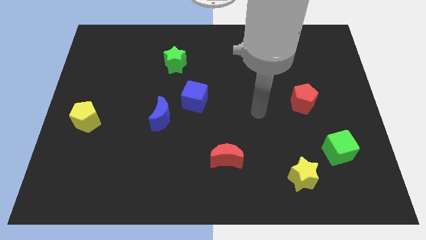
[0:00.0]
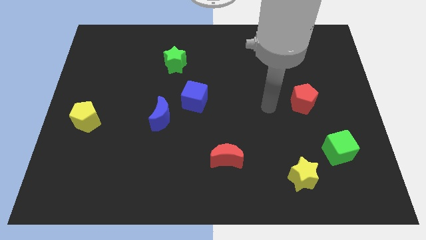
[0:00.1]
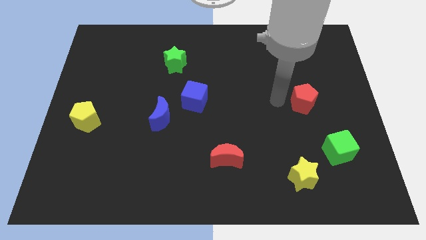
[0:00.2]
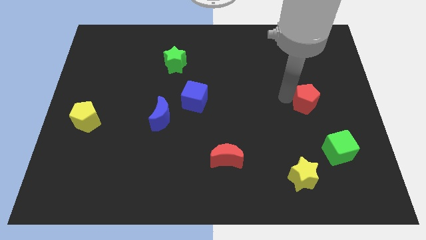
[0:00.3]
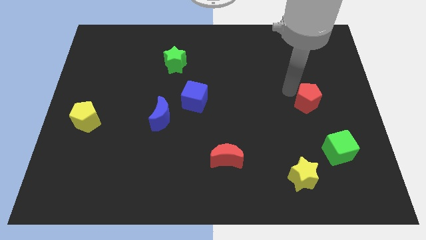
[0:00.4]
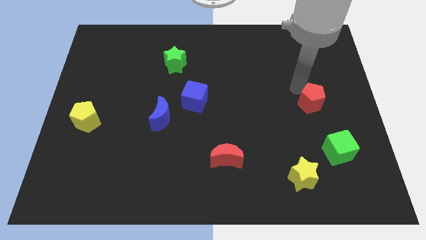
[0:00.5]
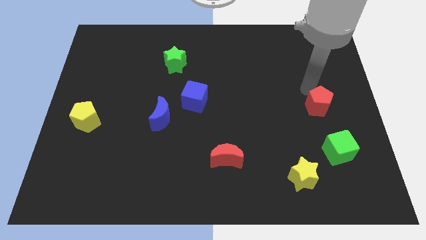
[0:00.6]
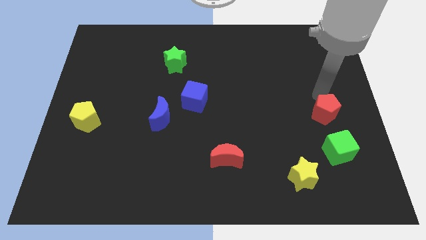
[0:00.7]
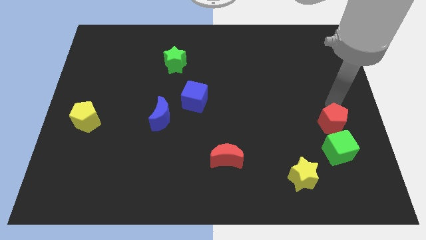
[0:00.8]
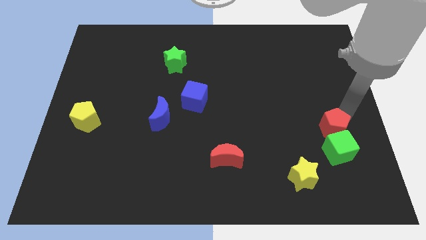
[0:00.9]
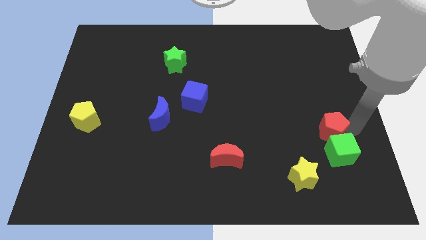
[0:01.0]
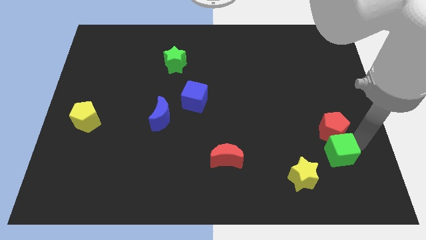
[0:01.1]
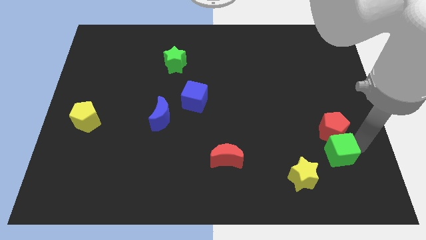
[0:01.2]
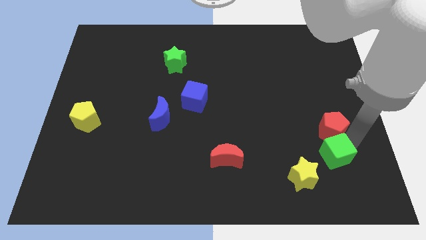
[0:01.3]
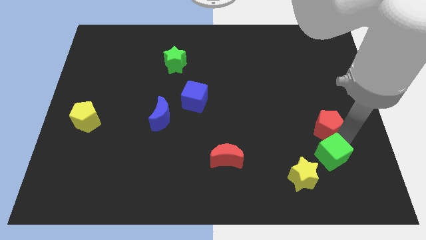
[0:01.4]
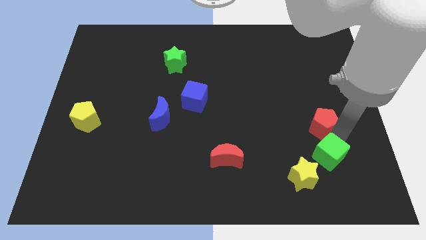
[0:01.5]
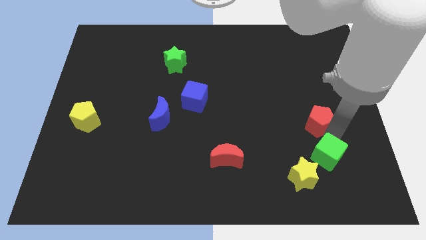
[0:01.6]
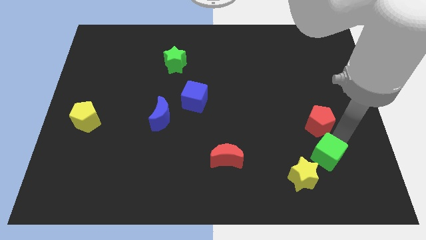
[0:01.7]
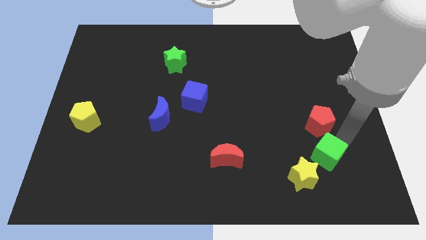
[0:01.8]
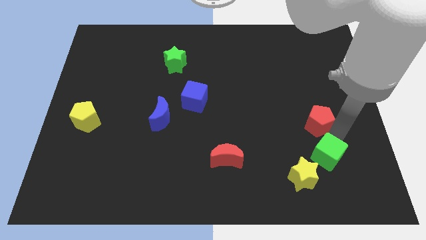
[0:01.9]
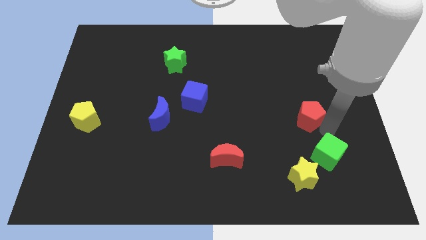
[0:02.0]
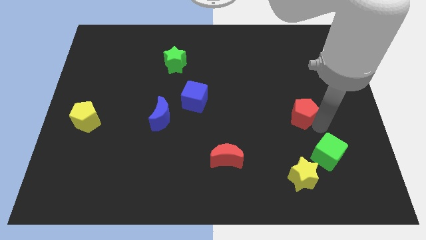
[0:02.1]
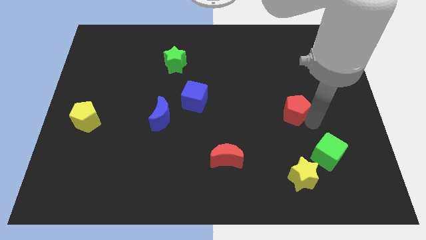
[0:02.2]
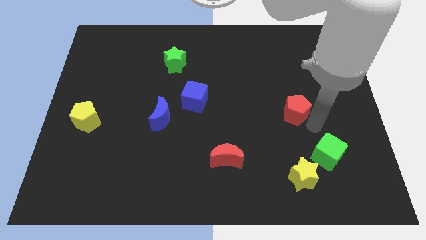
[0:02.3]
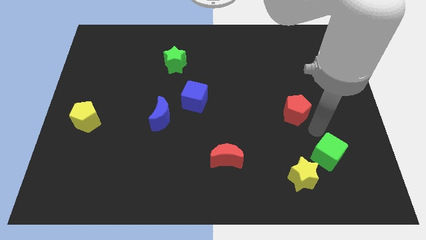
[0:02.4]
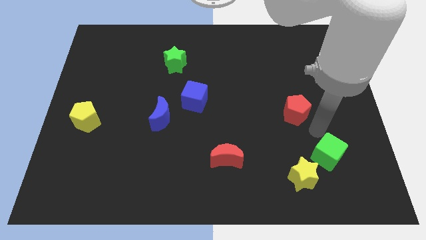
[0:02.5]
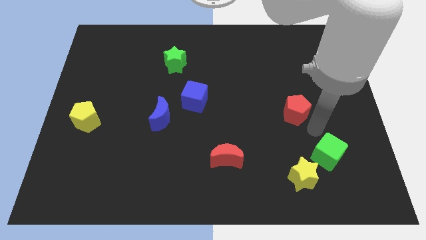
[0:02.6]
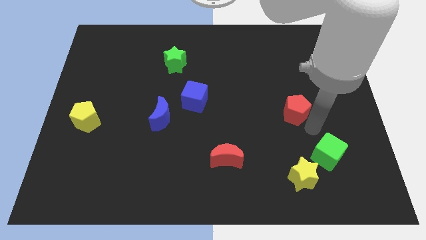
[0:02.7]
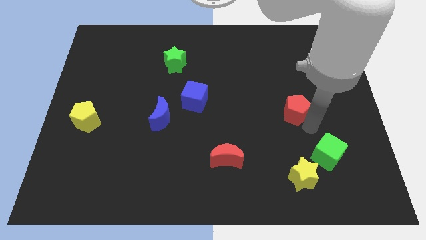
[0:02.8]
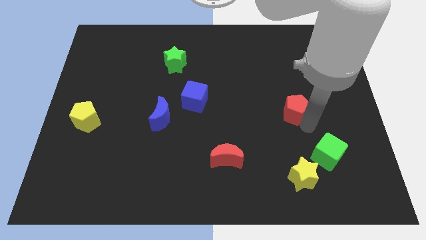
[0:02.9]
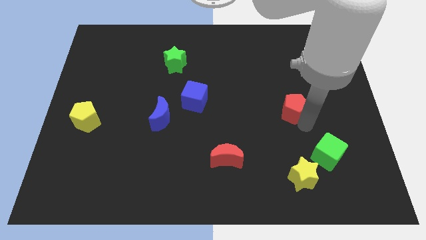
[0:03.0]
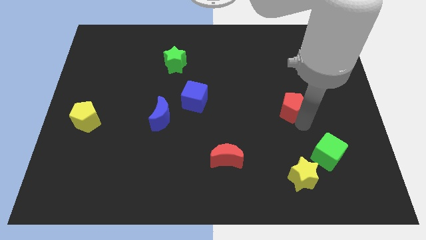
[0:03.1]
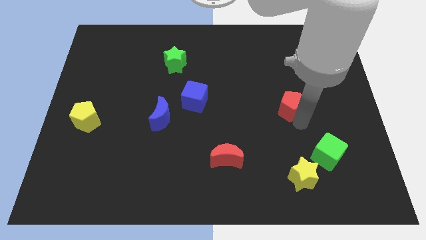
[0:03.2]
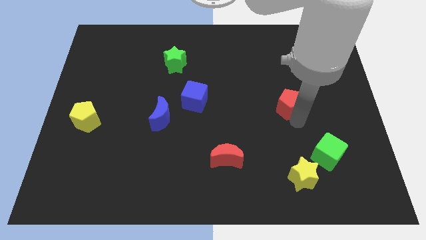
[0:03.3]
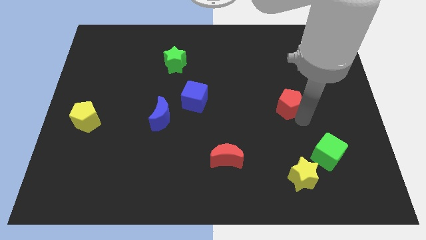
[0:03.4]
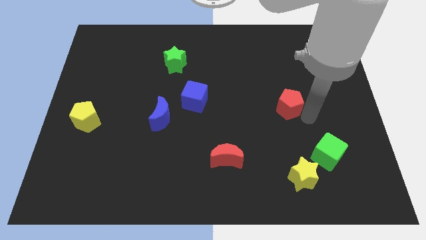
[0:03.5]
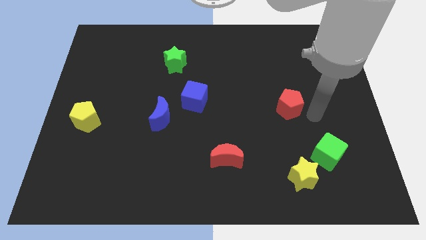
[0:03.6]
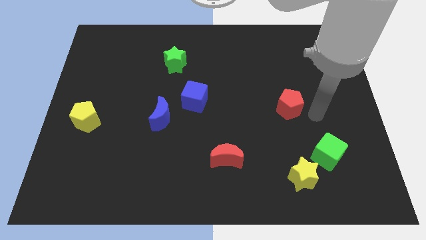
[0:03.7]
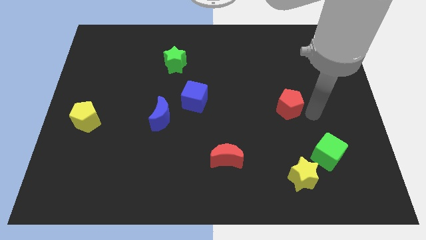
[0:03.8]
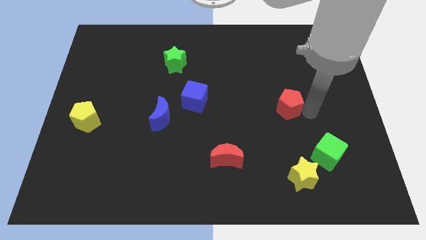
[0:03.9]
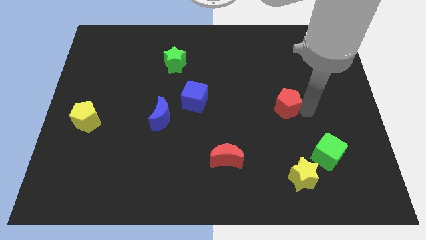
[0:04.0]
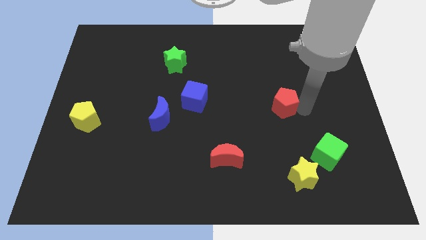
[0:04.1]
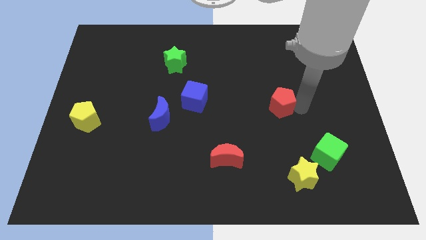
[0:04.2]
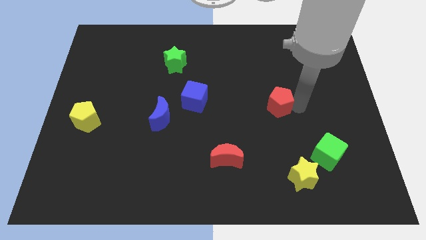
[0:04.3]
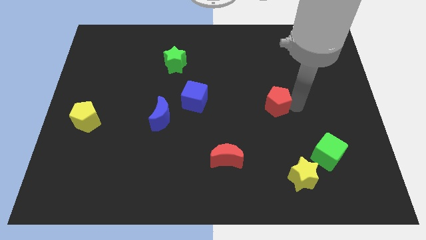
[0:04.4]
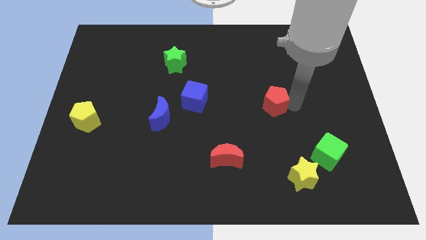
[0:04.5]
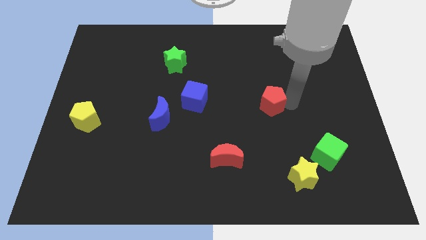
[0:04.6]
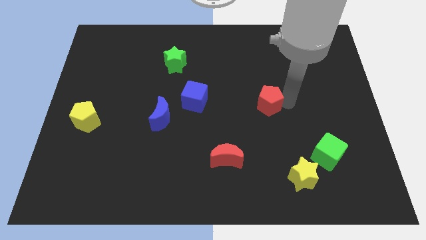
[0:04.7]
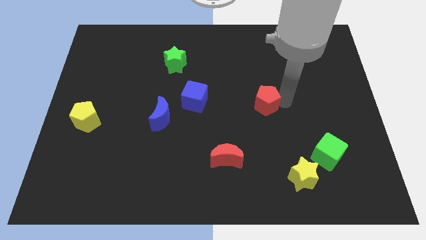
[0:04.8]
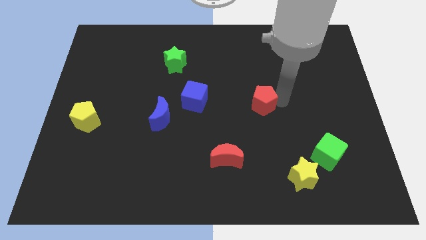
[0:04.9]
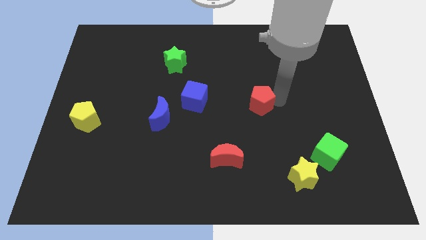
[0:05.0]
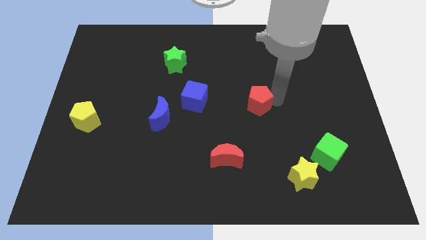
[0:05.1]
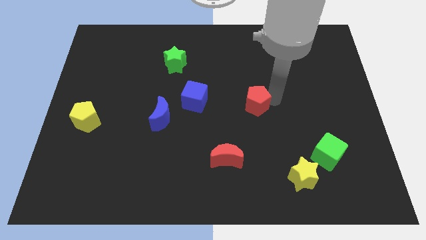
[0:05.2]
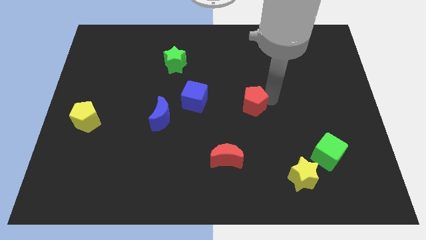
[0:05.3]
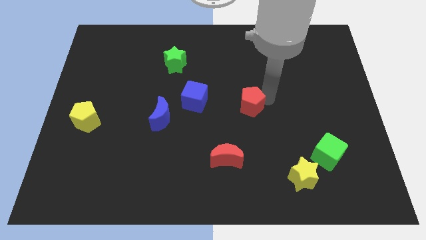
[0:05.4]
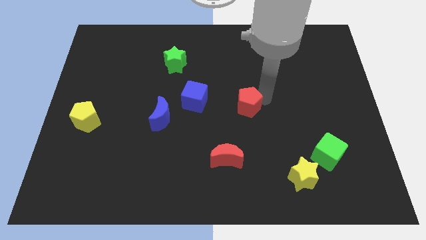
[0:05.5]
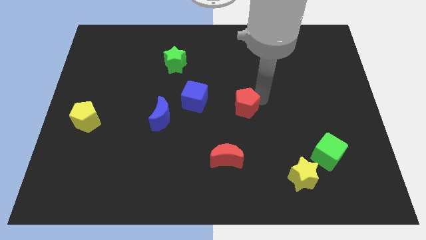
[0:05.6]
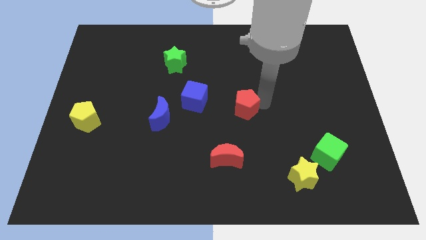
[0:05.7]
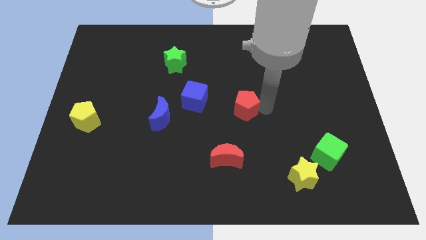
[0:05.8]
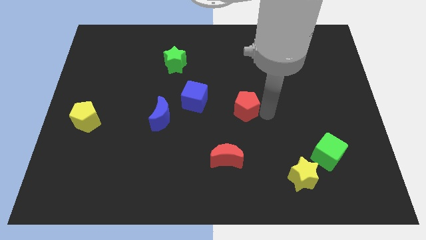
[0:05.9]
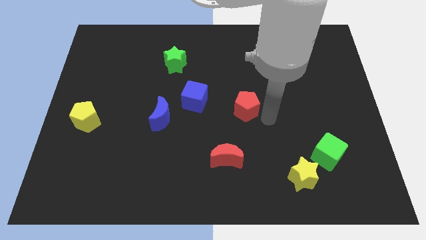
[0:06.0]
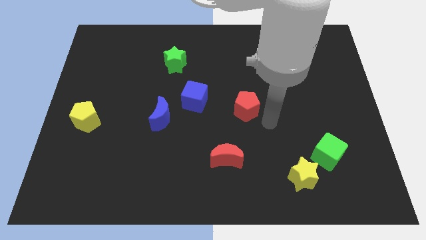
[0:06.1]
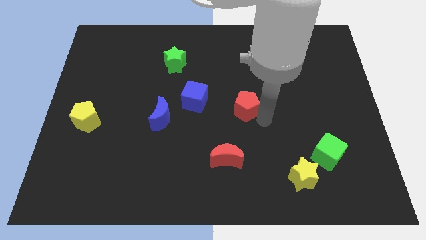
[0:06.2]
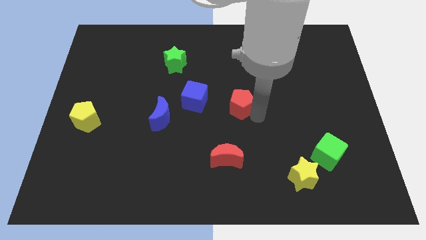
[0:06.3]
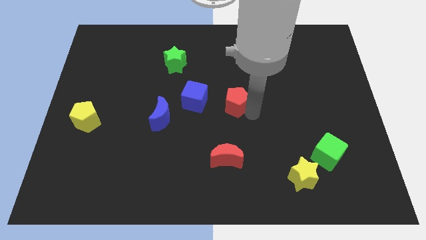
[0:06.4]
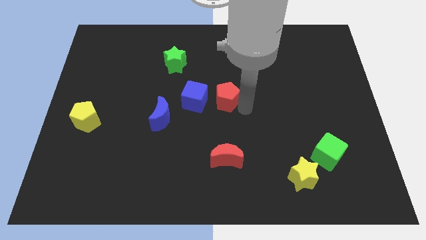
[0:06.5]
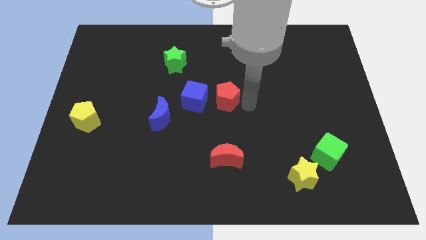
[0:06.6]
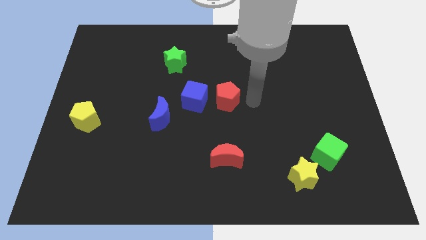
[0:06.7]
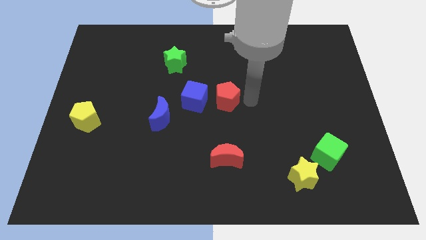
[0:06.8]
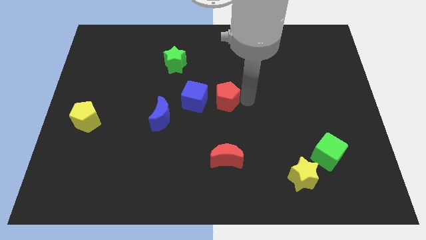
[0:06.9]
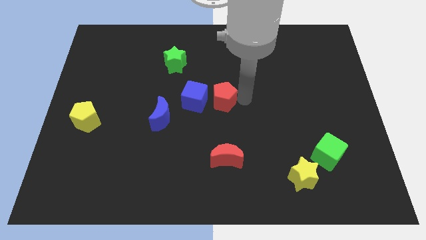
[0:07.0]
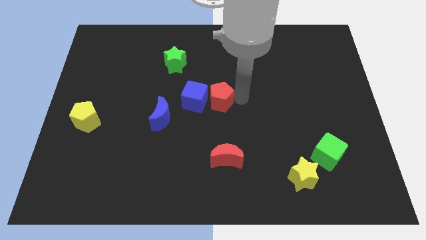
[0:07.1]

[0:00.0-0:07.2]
push the red pentagon close to the blue cube
